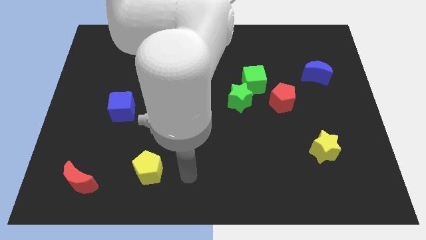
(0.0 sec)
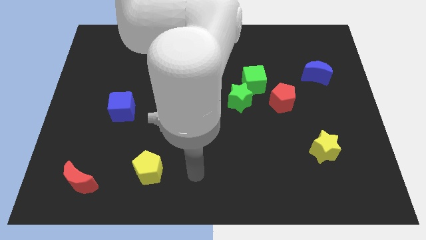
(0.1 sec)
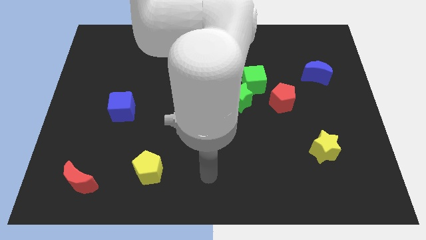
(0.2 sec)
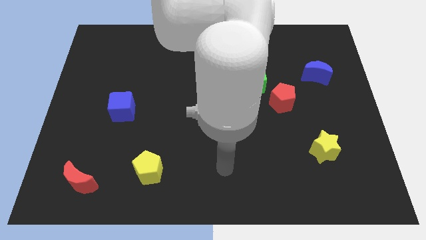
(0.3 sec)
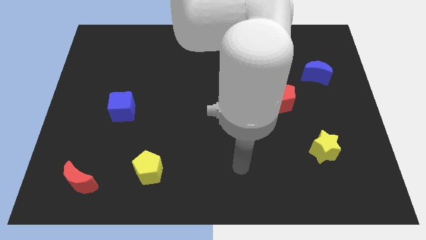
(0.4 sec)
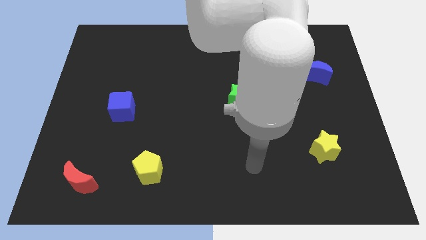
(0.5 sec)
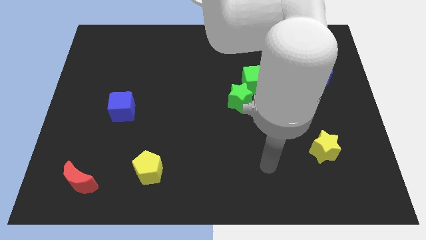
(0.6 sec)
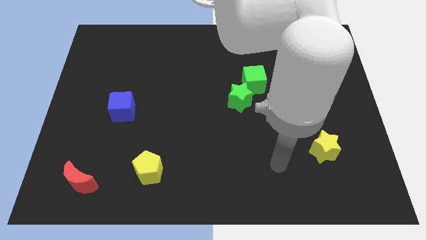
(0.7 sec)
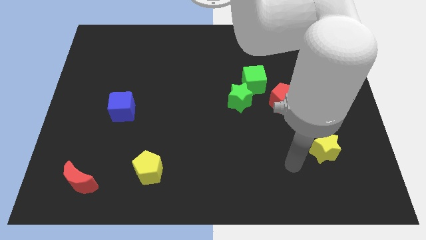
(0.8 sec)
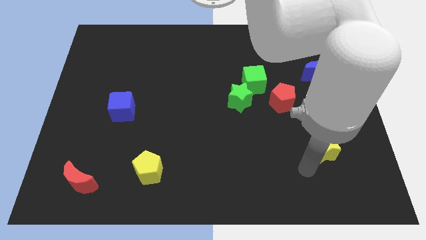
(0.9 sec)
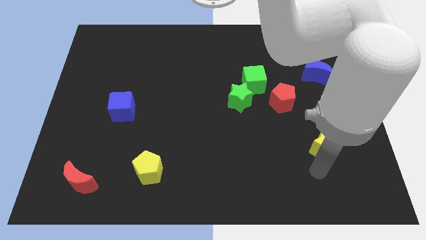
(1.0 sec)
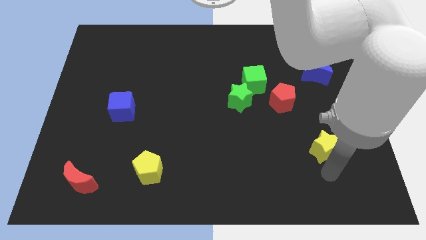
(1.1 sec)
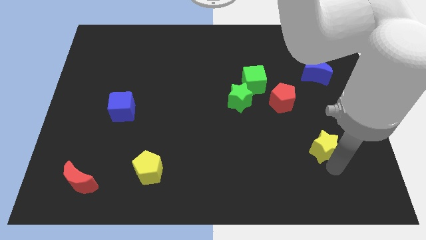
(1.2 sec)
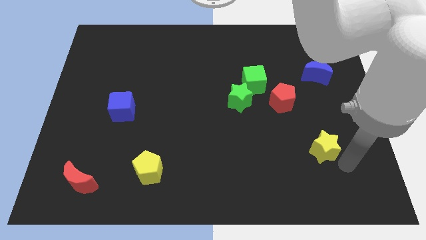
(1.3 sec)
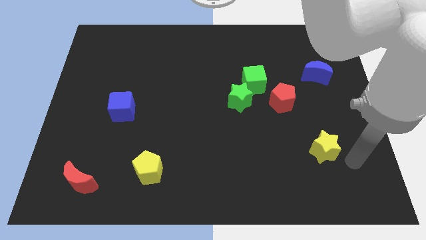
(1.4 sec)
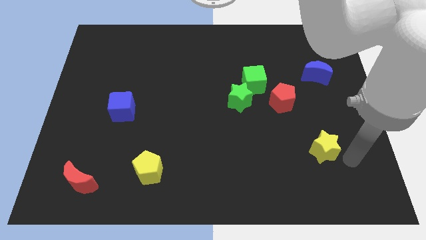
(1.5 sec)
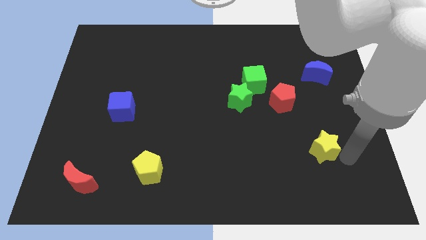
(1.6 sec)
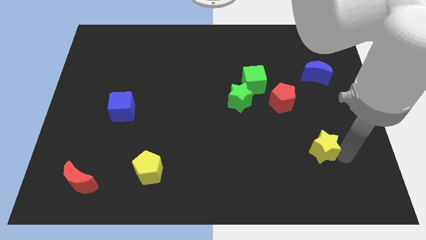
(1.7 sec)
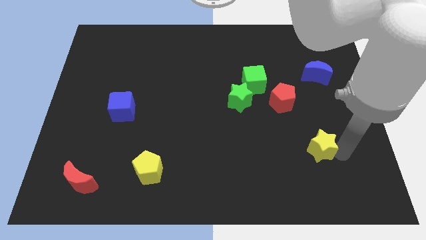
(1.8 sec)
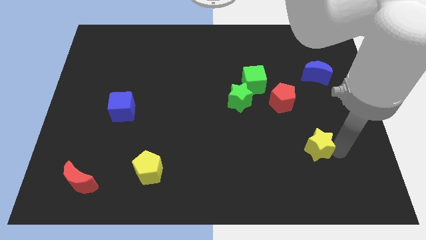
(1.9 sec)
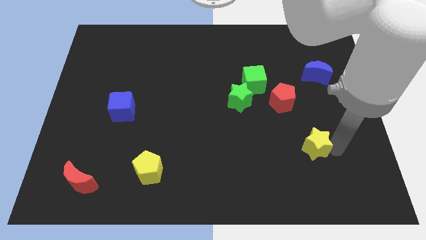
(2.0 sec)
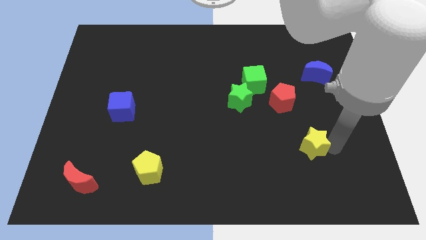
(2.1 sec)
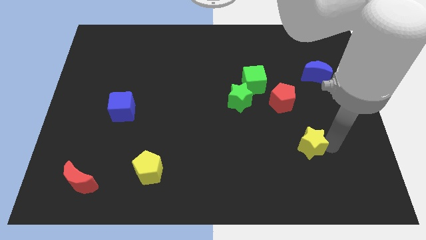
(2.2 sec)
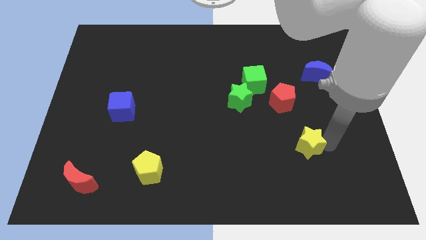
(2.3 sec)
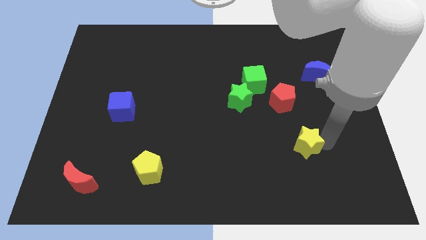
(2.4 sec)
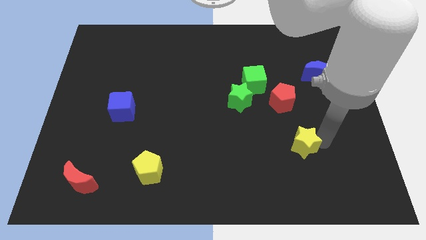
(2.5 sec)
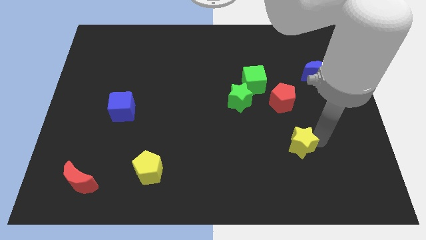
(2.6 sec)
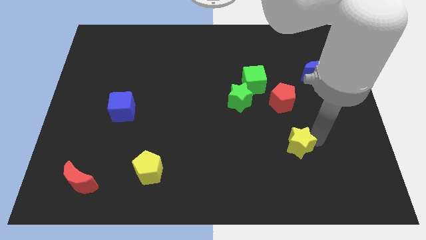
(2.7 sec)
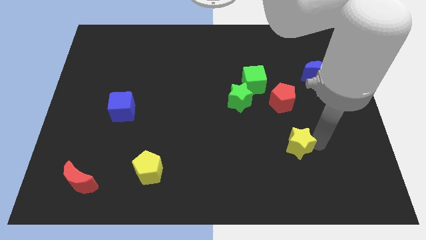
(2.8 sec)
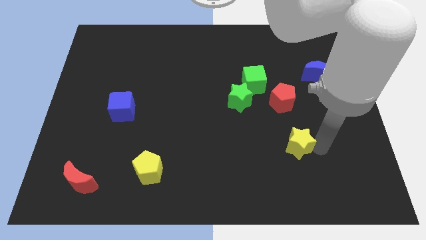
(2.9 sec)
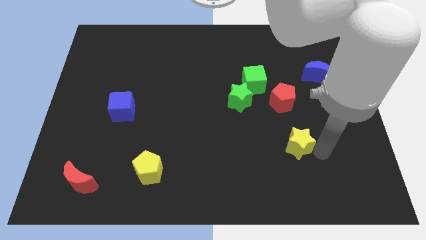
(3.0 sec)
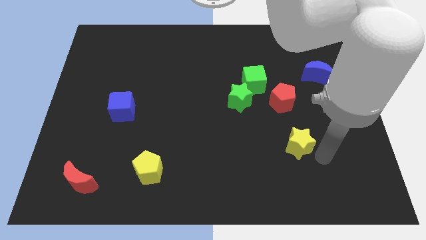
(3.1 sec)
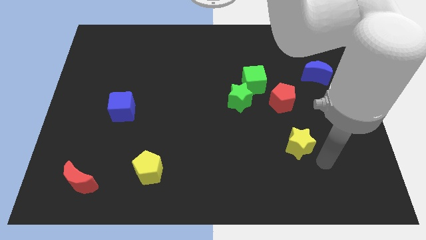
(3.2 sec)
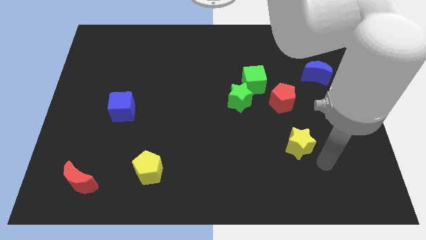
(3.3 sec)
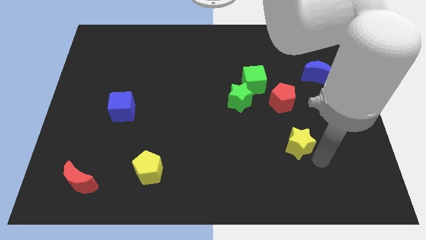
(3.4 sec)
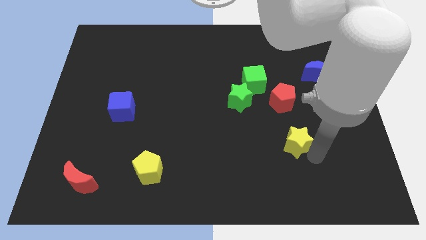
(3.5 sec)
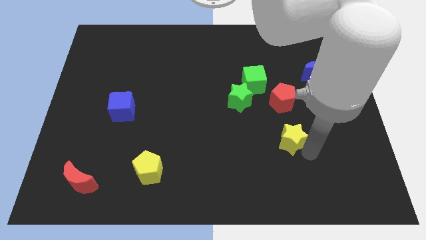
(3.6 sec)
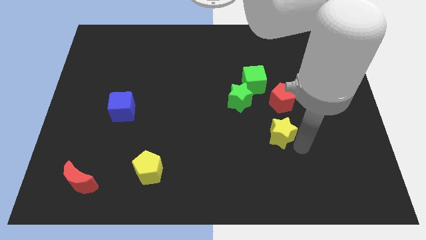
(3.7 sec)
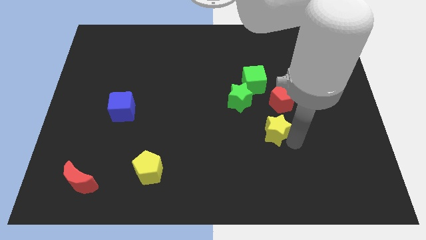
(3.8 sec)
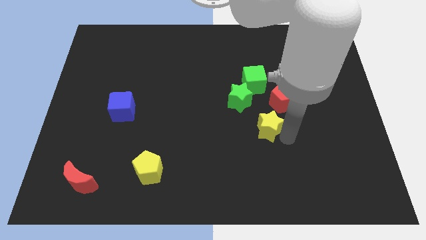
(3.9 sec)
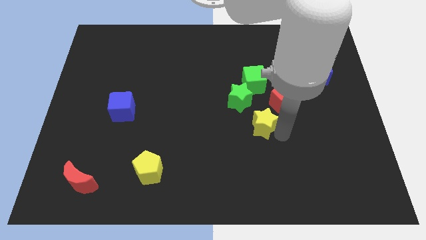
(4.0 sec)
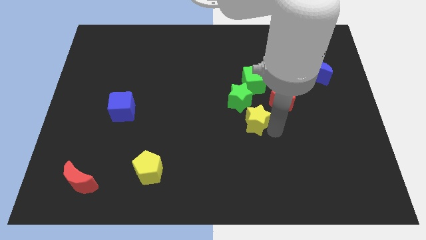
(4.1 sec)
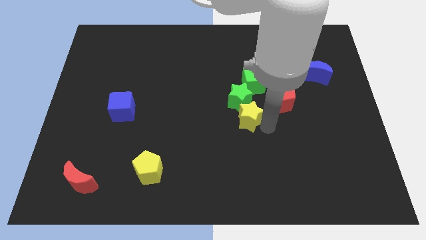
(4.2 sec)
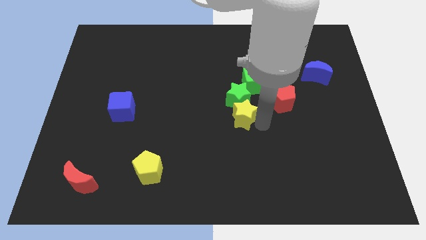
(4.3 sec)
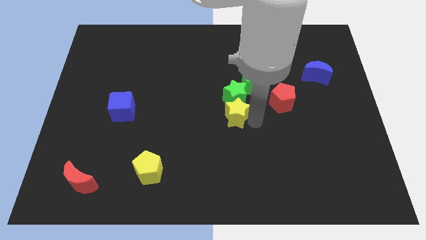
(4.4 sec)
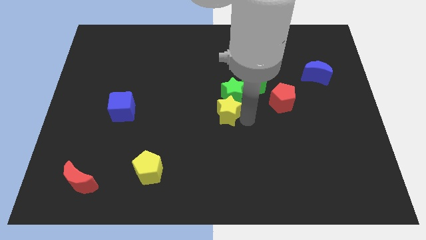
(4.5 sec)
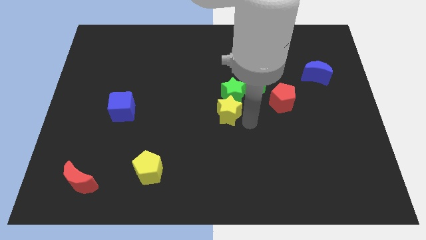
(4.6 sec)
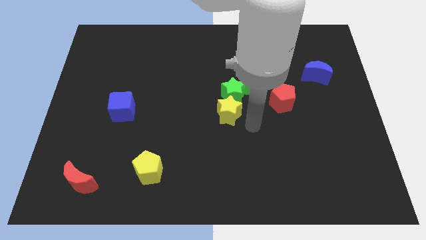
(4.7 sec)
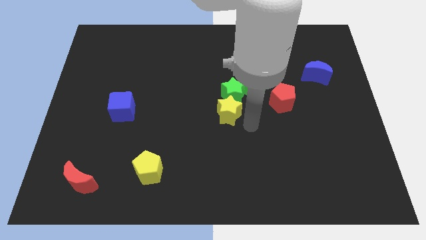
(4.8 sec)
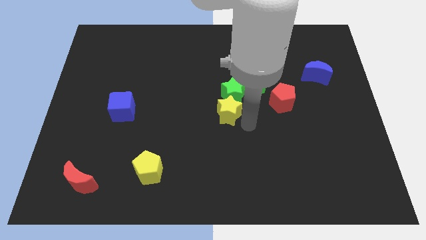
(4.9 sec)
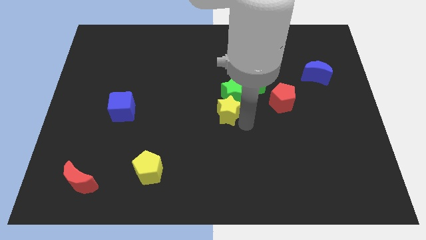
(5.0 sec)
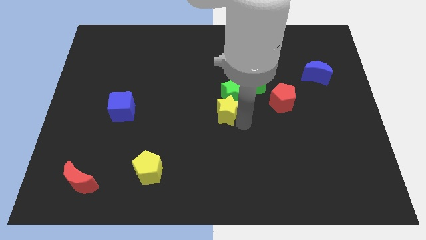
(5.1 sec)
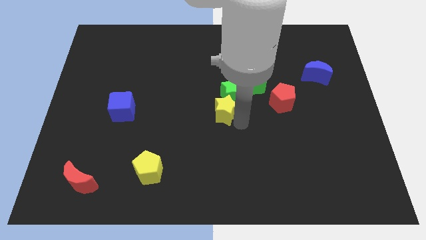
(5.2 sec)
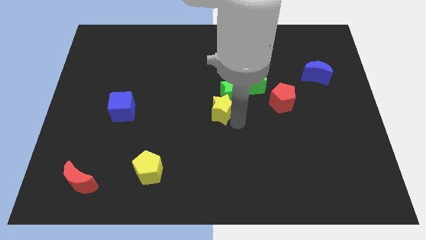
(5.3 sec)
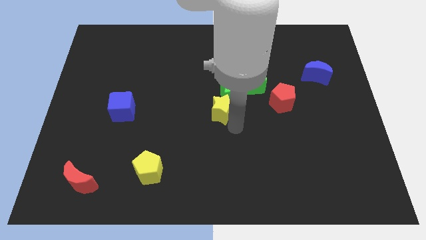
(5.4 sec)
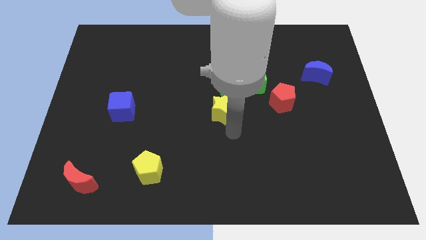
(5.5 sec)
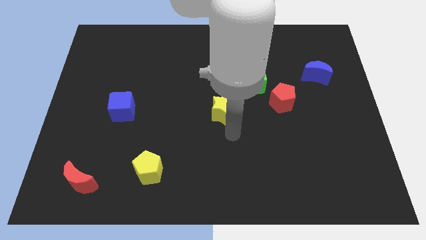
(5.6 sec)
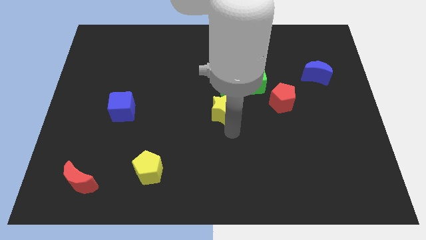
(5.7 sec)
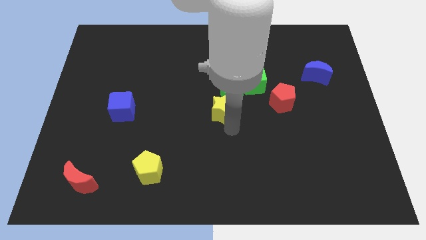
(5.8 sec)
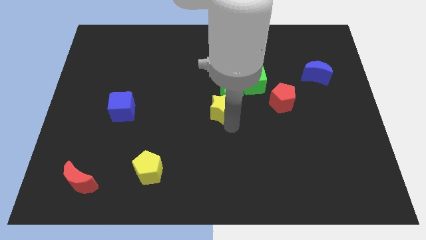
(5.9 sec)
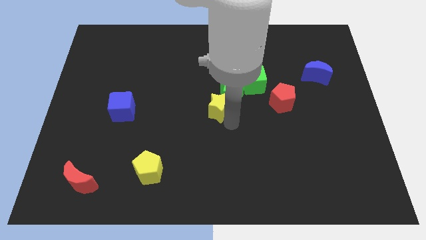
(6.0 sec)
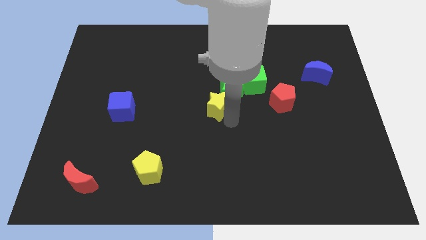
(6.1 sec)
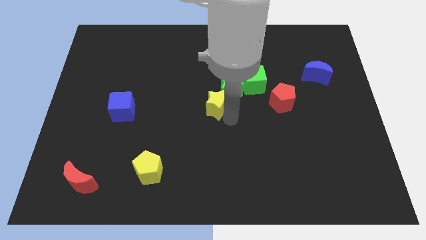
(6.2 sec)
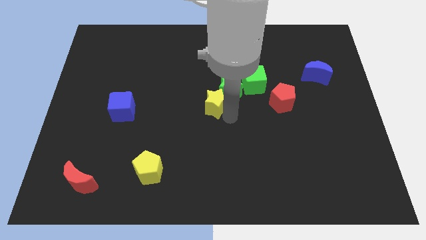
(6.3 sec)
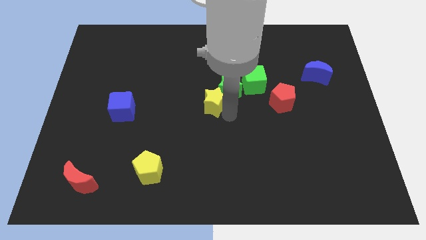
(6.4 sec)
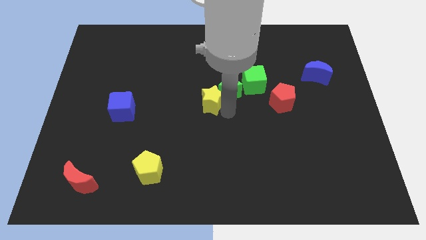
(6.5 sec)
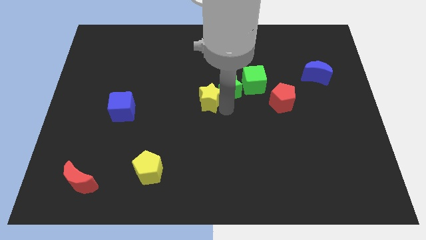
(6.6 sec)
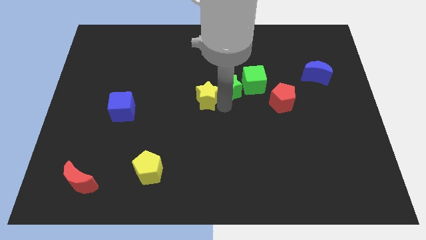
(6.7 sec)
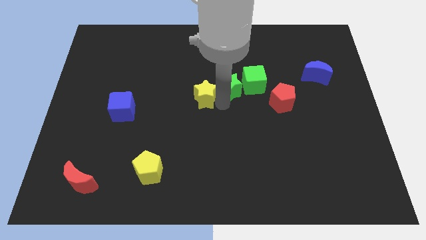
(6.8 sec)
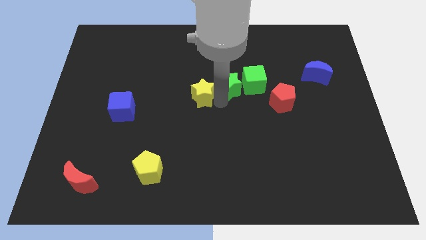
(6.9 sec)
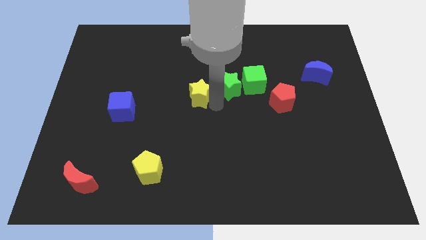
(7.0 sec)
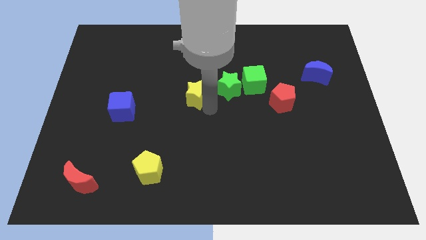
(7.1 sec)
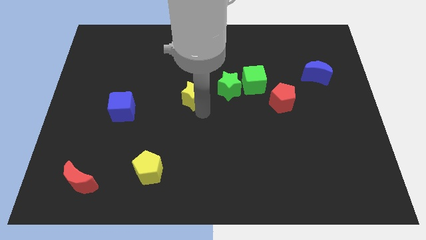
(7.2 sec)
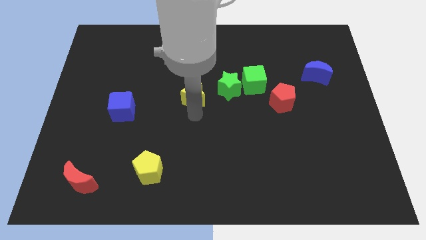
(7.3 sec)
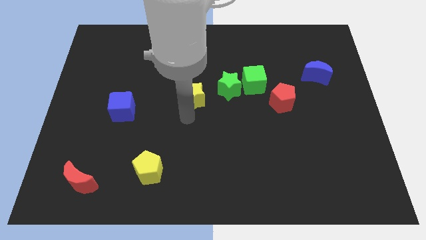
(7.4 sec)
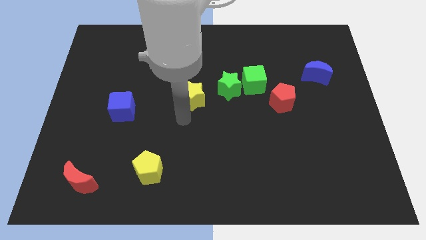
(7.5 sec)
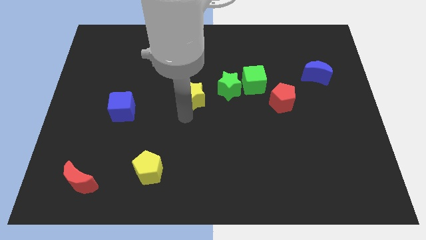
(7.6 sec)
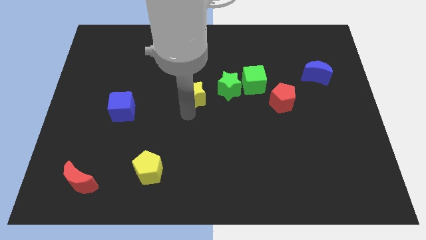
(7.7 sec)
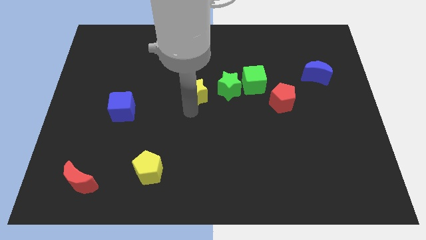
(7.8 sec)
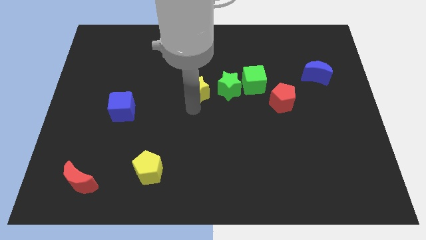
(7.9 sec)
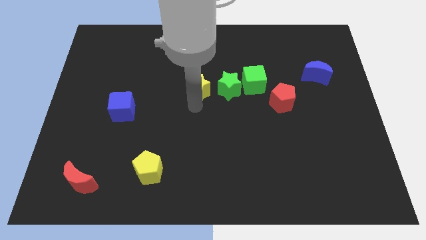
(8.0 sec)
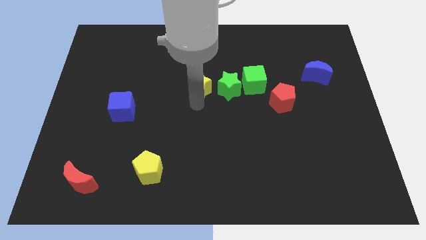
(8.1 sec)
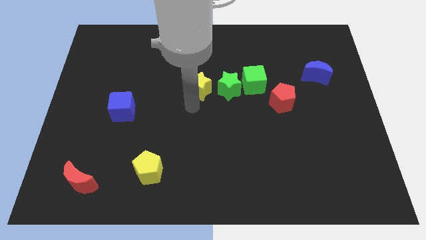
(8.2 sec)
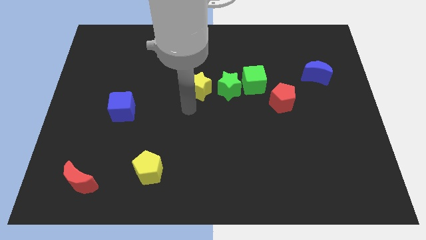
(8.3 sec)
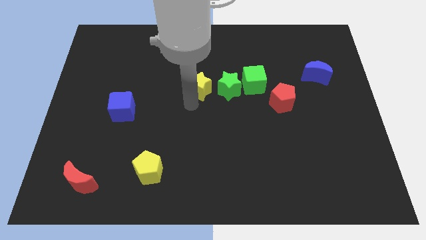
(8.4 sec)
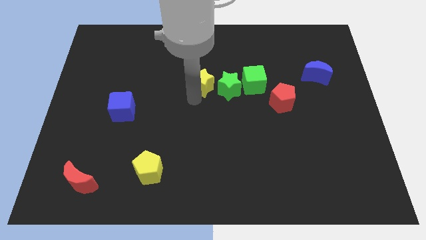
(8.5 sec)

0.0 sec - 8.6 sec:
slide the yellow star to the top left side of the green star
